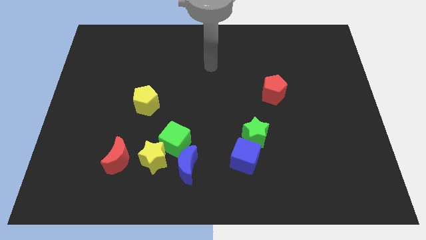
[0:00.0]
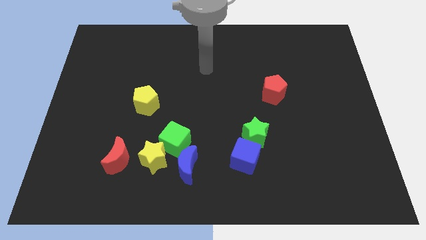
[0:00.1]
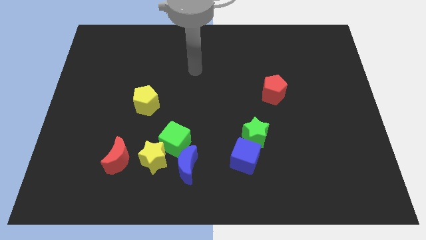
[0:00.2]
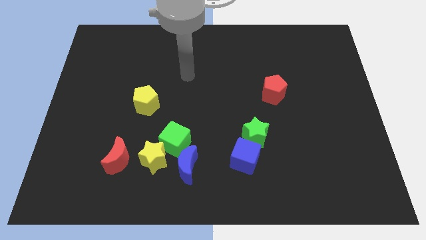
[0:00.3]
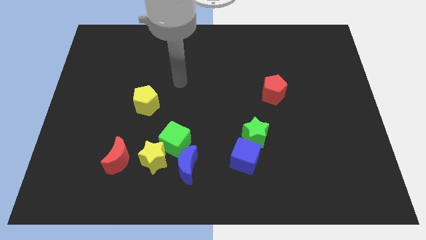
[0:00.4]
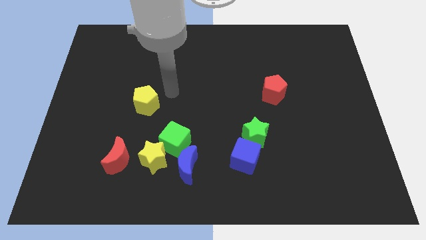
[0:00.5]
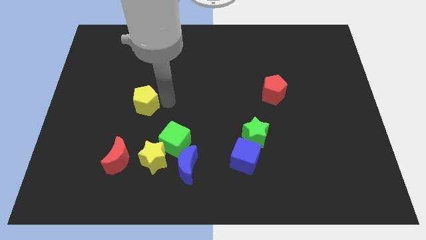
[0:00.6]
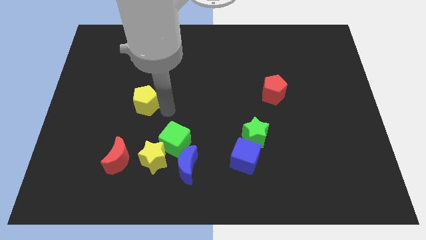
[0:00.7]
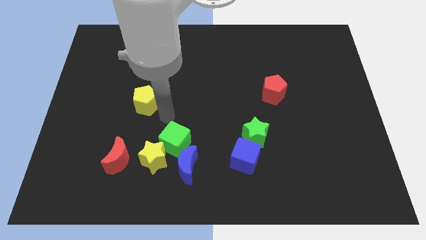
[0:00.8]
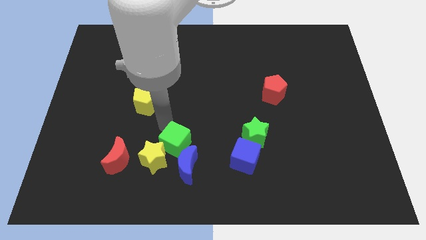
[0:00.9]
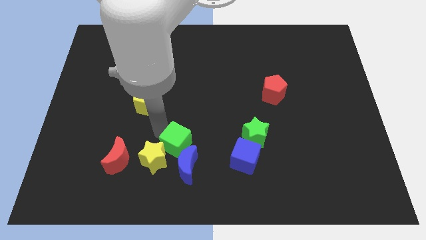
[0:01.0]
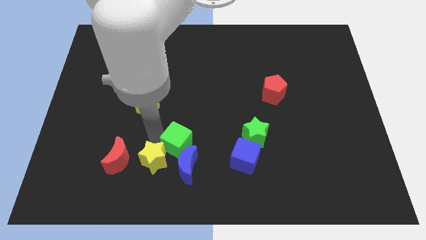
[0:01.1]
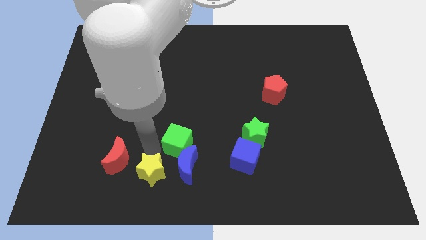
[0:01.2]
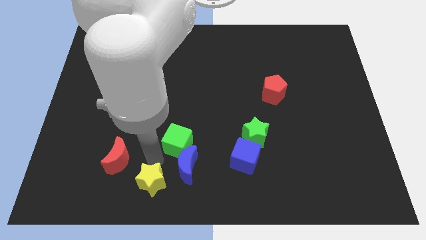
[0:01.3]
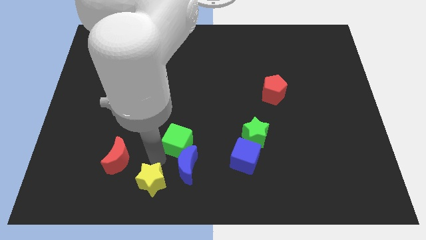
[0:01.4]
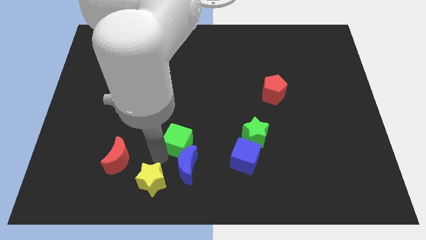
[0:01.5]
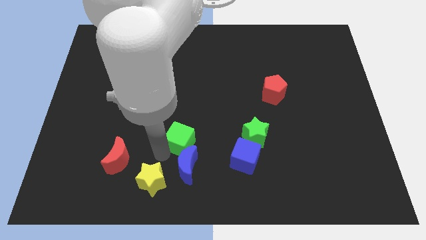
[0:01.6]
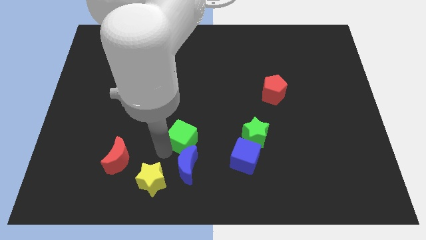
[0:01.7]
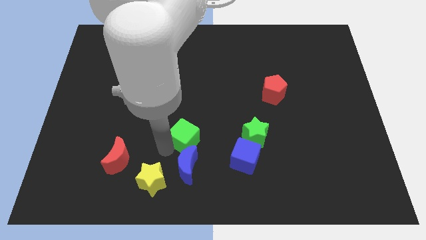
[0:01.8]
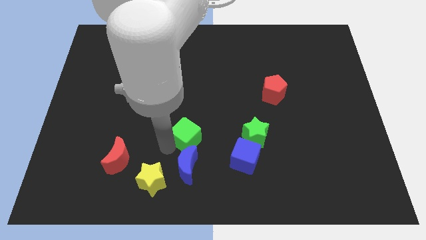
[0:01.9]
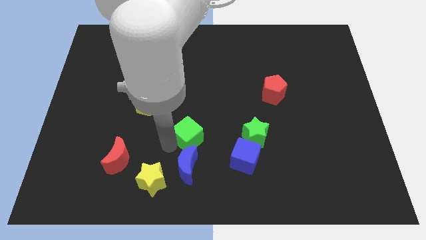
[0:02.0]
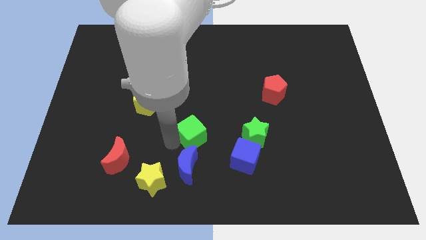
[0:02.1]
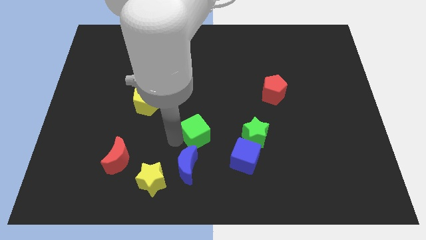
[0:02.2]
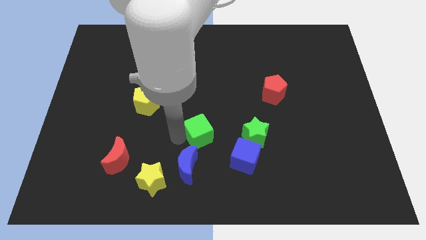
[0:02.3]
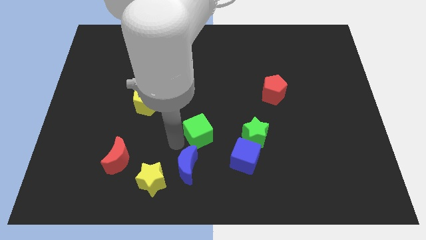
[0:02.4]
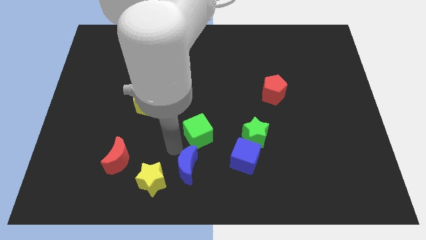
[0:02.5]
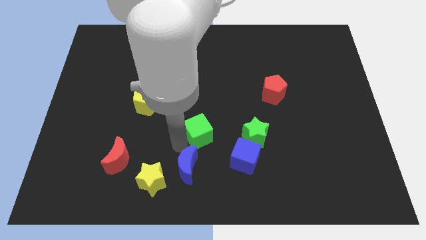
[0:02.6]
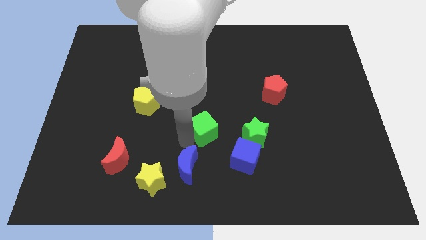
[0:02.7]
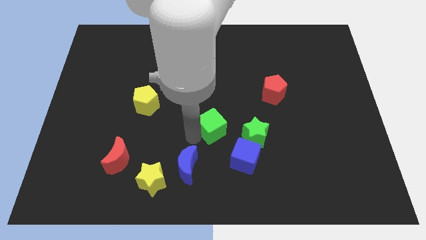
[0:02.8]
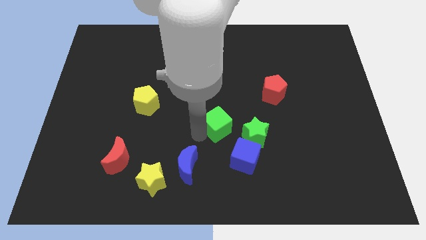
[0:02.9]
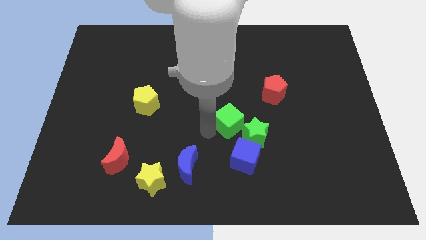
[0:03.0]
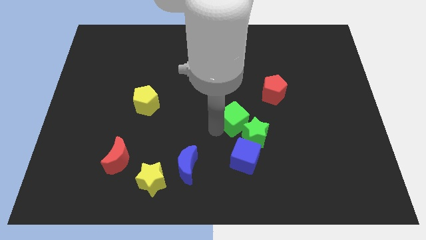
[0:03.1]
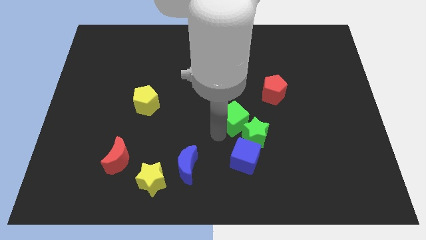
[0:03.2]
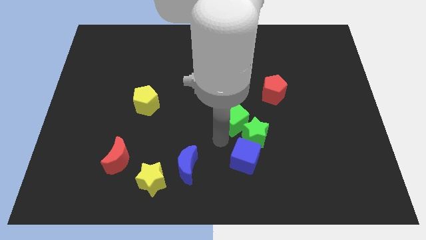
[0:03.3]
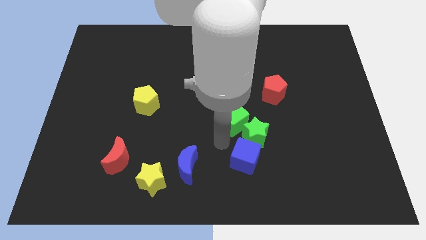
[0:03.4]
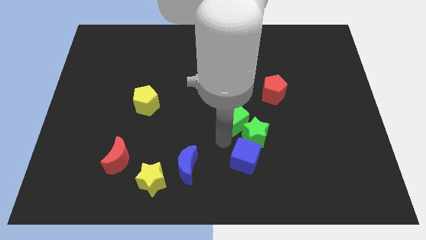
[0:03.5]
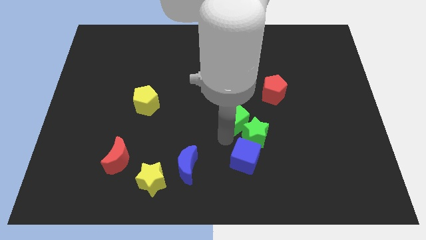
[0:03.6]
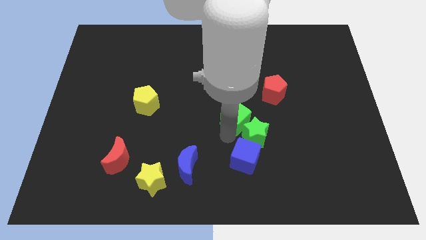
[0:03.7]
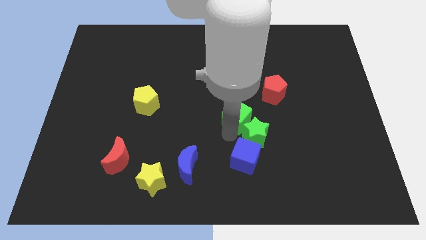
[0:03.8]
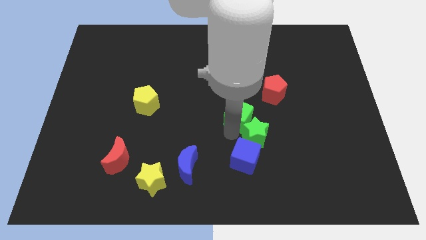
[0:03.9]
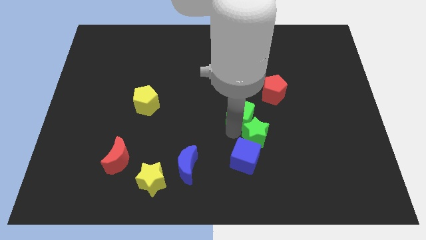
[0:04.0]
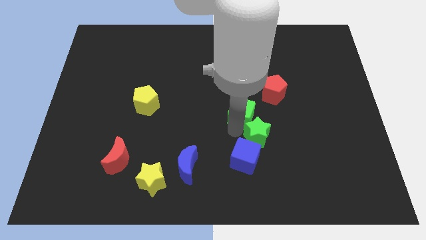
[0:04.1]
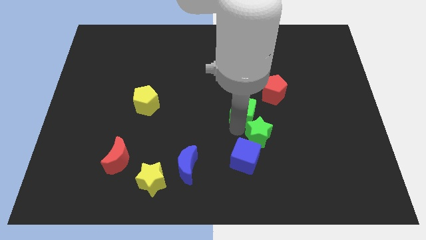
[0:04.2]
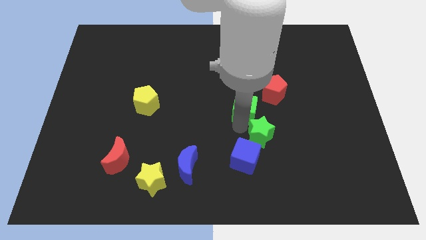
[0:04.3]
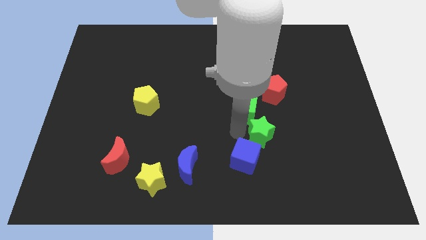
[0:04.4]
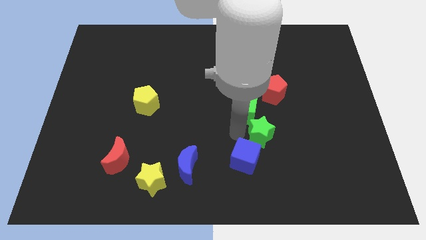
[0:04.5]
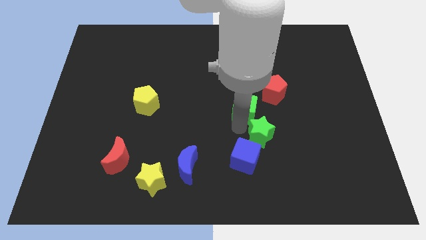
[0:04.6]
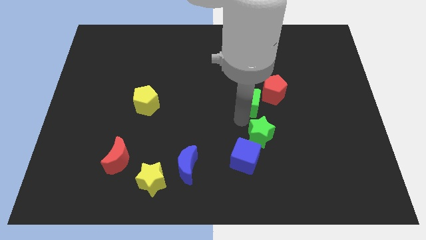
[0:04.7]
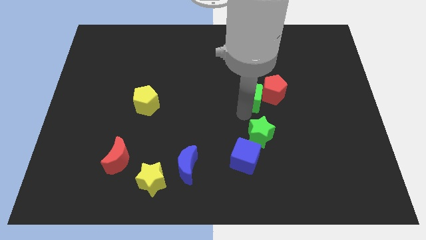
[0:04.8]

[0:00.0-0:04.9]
move the green cube up and then to the right

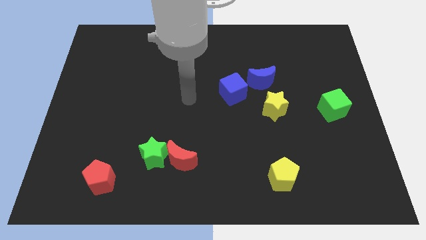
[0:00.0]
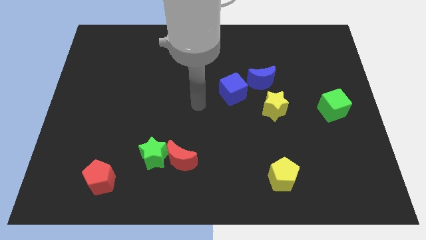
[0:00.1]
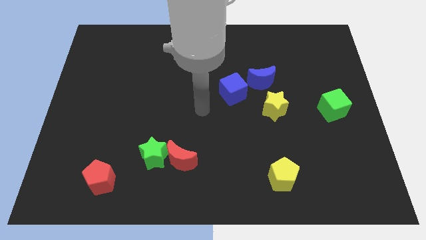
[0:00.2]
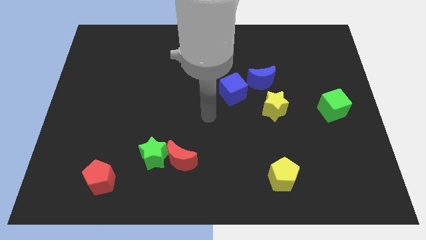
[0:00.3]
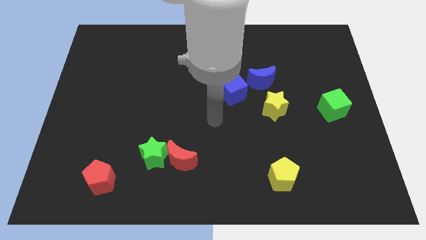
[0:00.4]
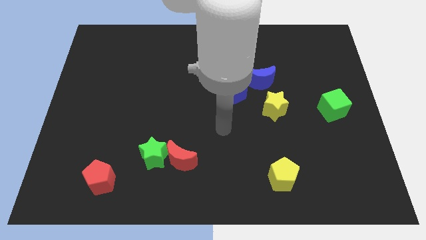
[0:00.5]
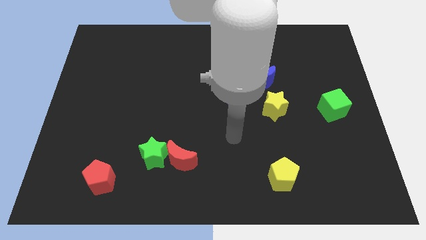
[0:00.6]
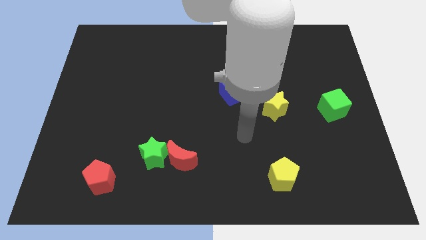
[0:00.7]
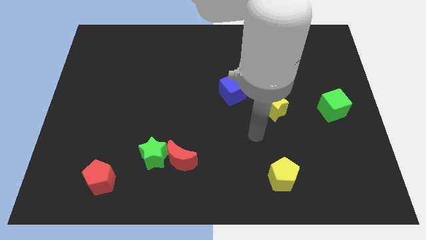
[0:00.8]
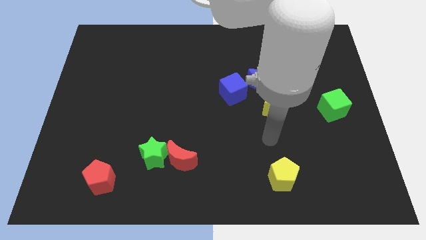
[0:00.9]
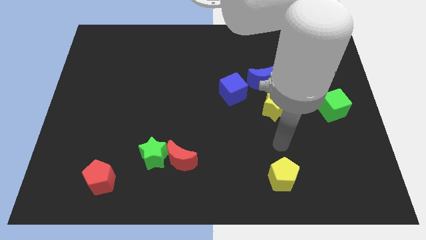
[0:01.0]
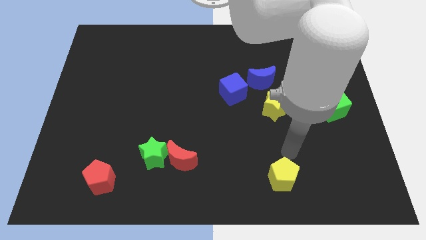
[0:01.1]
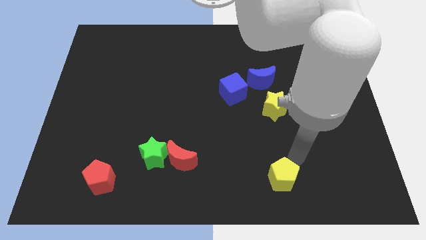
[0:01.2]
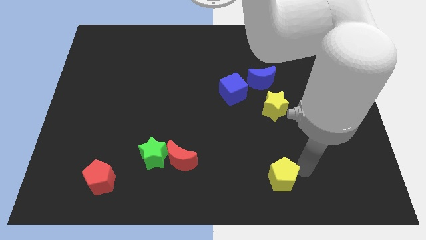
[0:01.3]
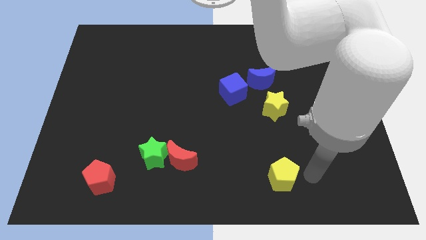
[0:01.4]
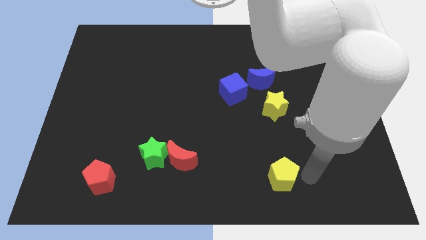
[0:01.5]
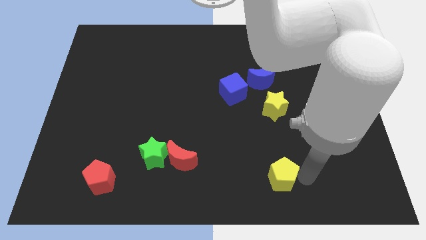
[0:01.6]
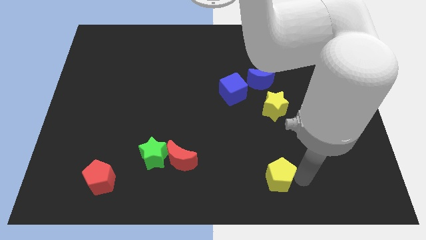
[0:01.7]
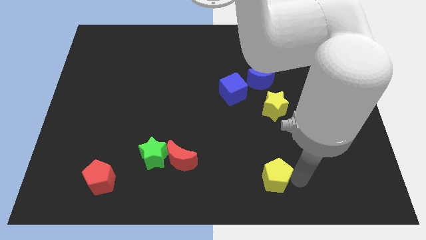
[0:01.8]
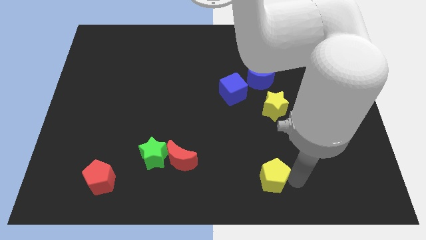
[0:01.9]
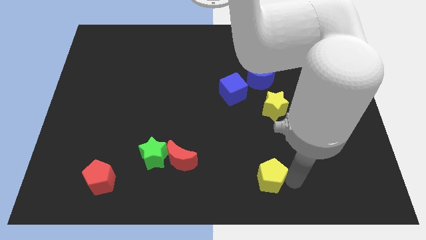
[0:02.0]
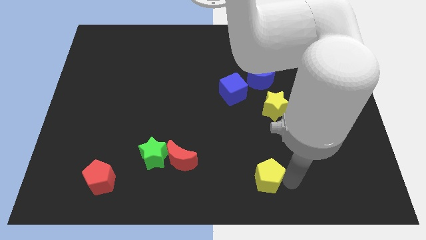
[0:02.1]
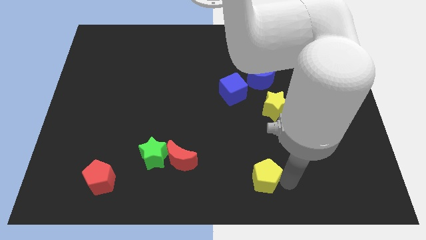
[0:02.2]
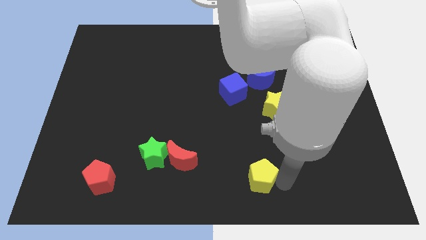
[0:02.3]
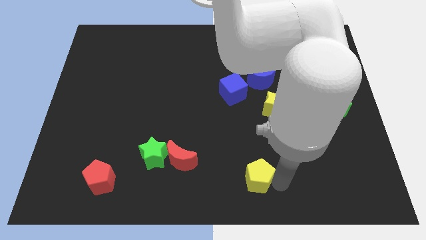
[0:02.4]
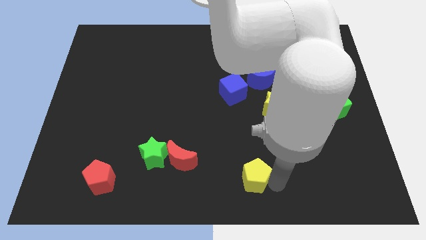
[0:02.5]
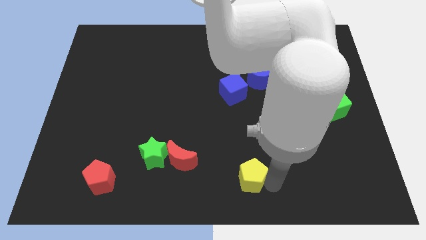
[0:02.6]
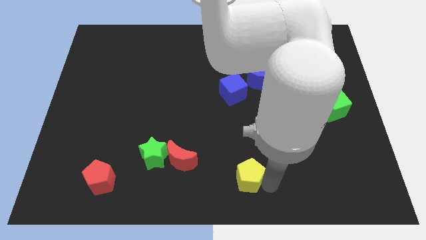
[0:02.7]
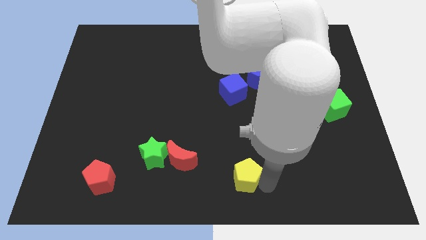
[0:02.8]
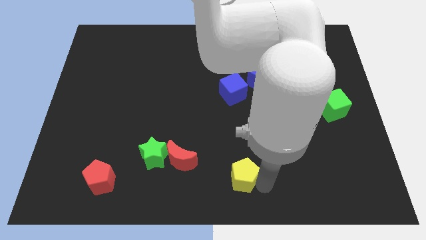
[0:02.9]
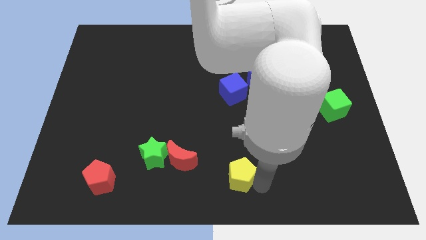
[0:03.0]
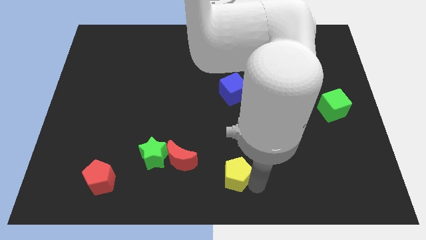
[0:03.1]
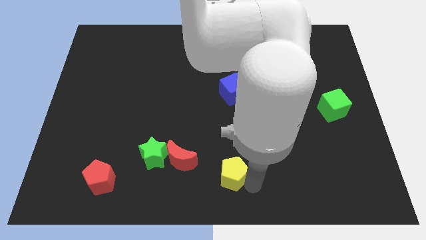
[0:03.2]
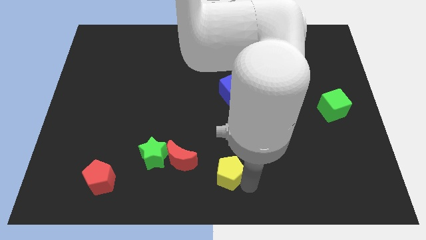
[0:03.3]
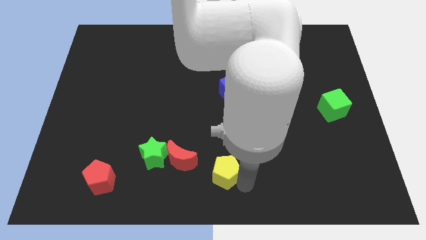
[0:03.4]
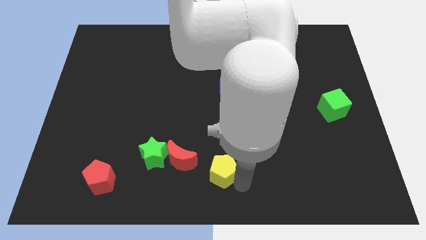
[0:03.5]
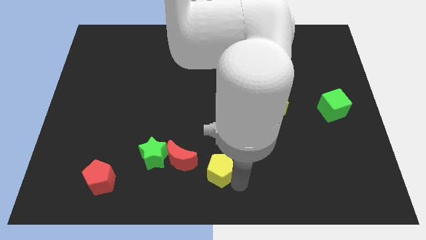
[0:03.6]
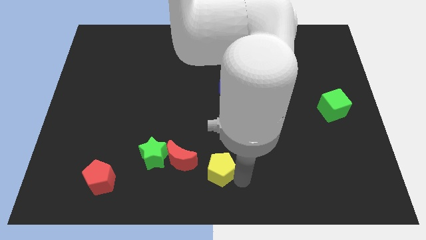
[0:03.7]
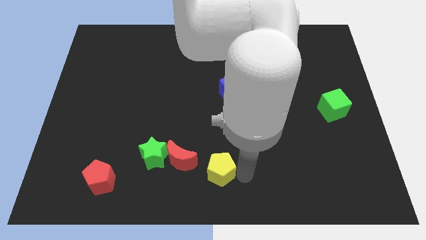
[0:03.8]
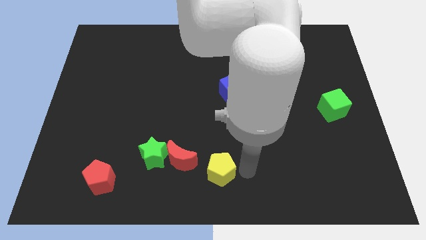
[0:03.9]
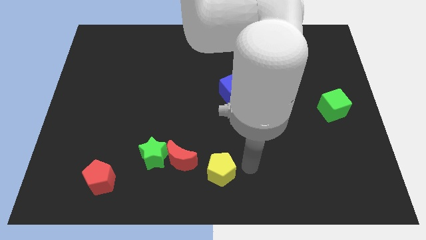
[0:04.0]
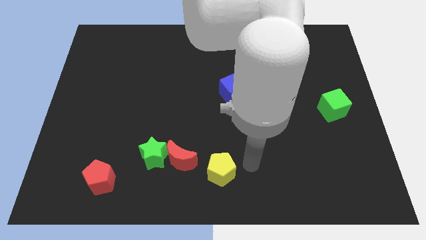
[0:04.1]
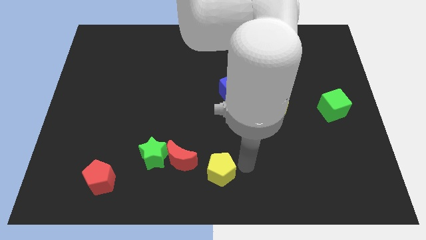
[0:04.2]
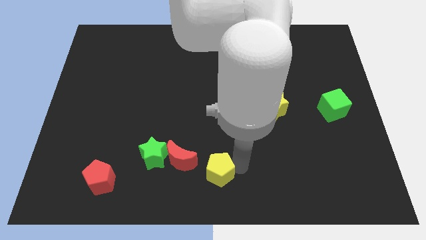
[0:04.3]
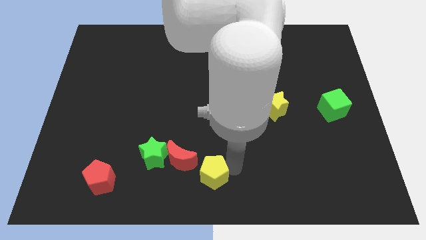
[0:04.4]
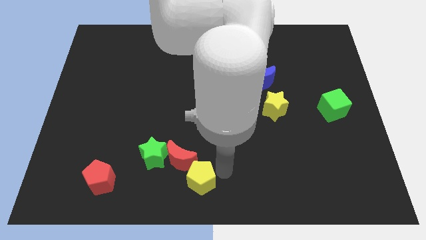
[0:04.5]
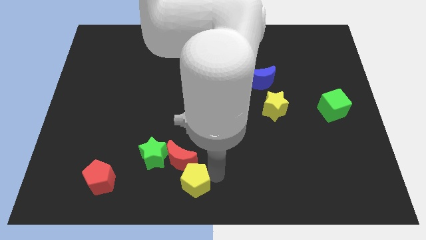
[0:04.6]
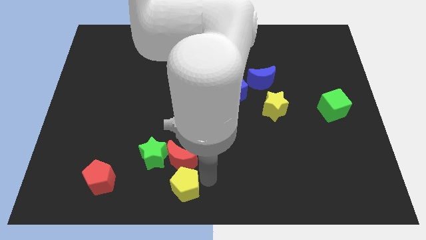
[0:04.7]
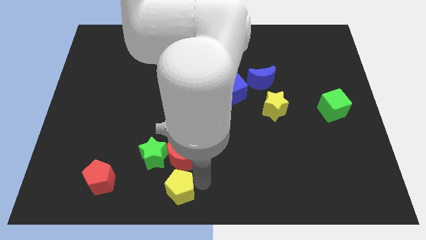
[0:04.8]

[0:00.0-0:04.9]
move the yellow pentagon left
